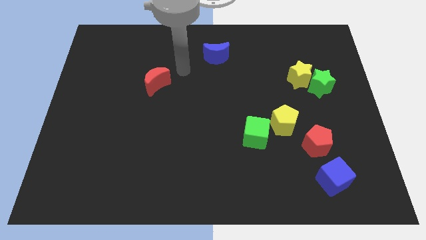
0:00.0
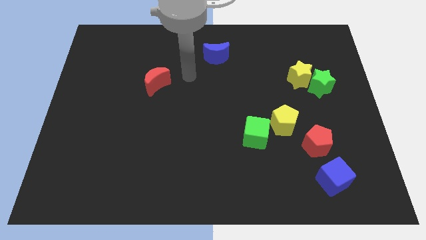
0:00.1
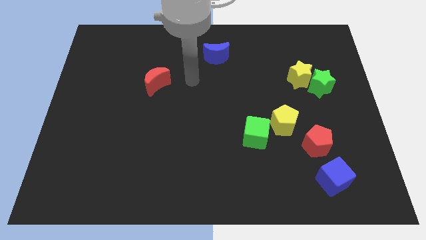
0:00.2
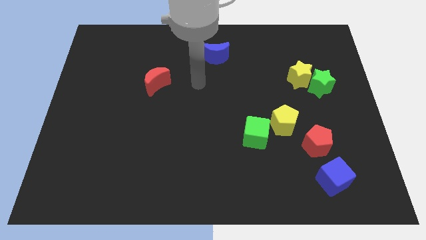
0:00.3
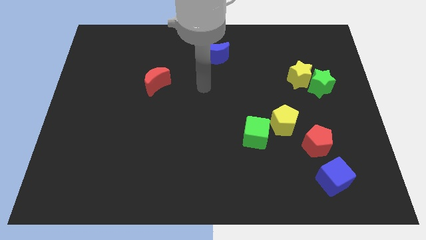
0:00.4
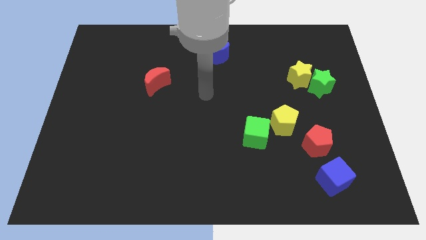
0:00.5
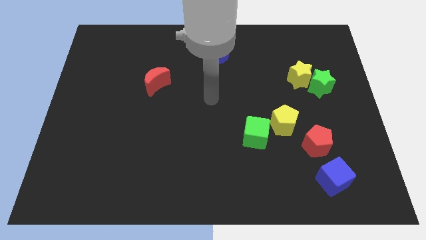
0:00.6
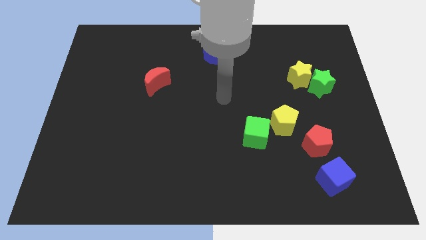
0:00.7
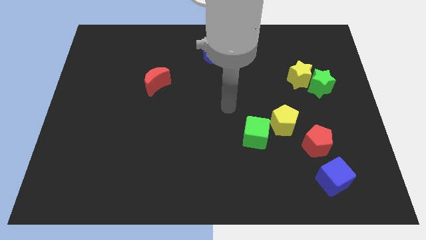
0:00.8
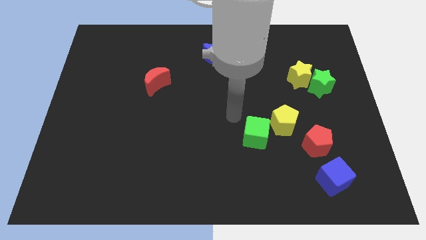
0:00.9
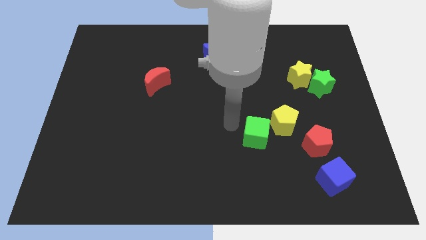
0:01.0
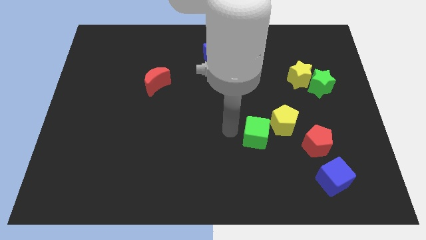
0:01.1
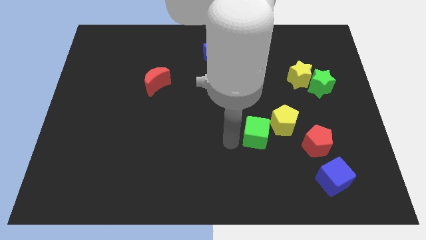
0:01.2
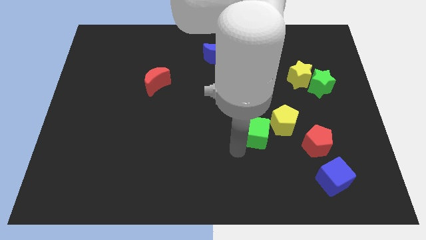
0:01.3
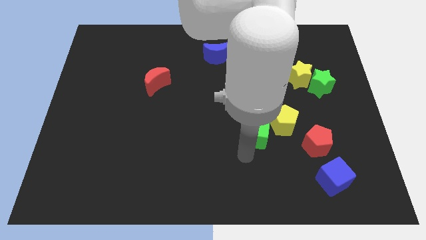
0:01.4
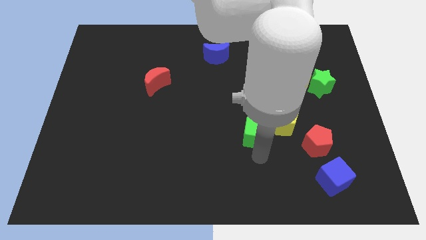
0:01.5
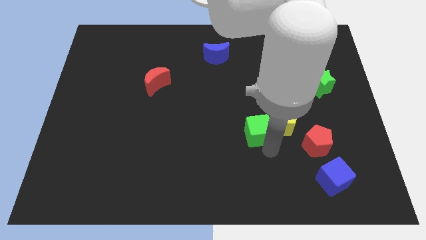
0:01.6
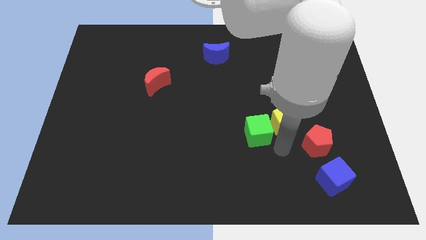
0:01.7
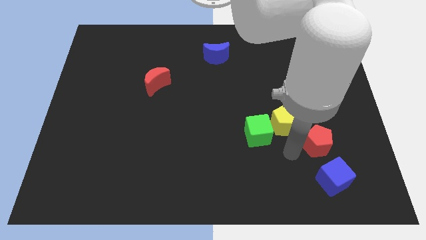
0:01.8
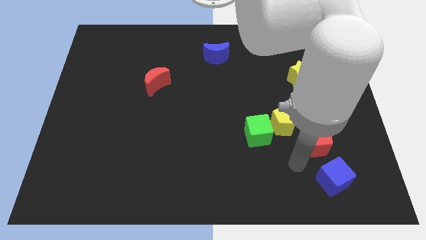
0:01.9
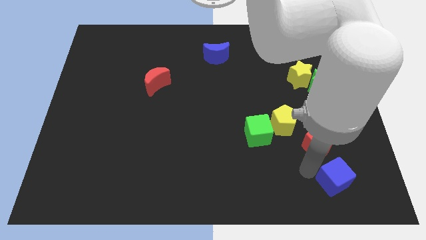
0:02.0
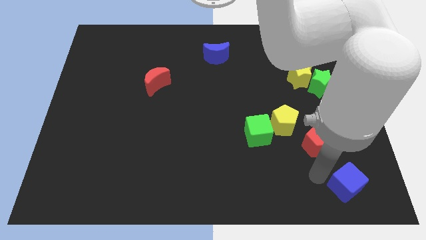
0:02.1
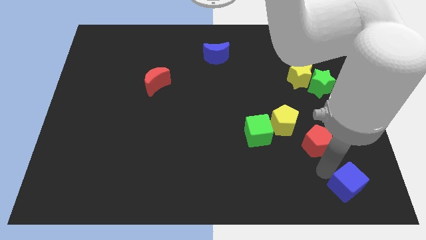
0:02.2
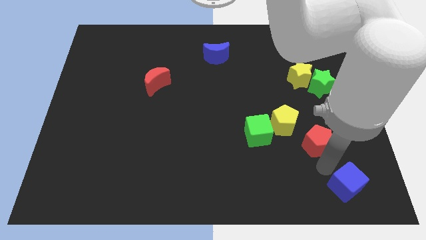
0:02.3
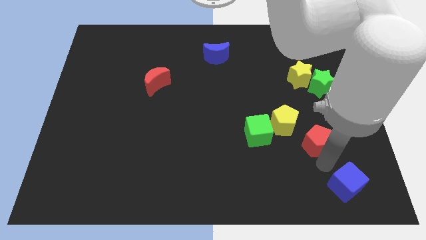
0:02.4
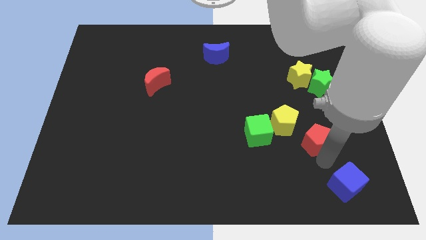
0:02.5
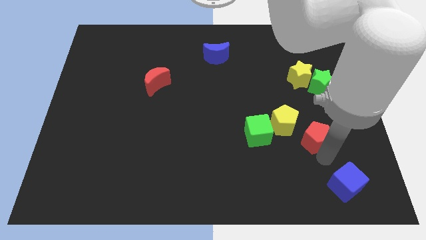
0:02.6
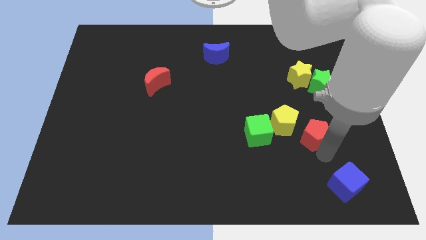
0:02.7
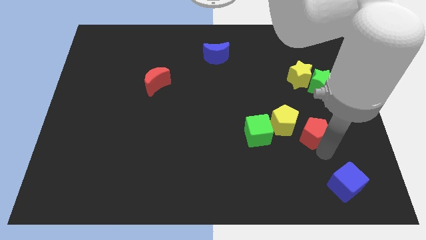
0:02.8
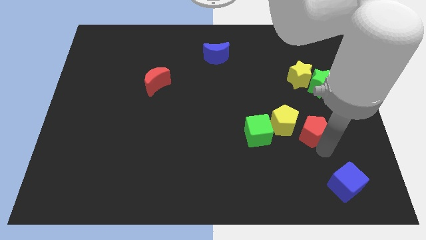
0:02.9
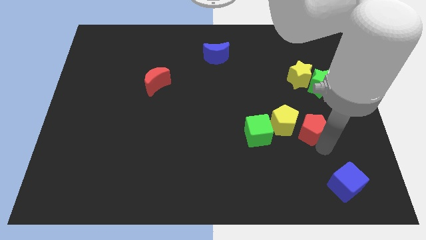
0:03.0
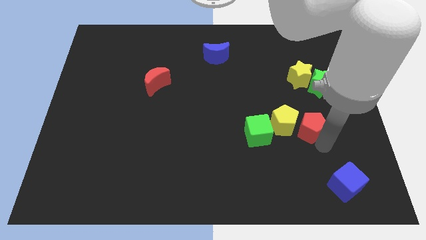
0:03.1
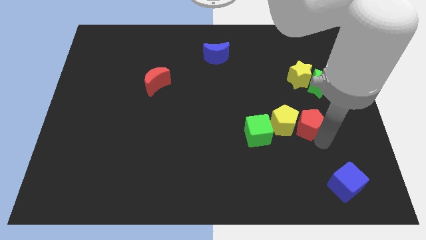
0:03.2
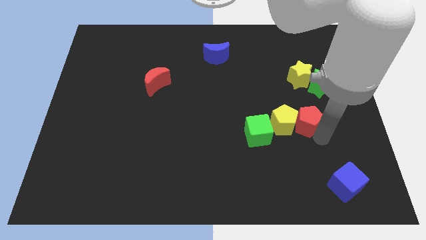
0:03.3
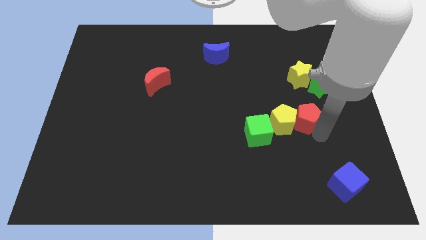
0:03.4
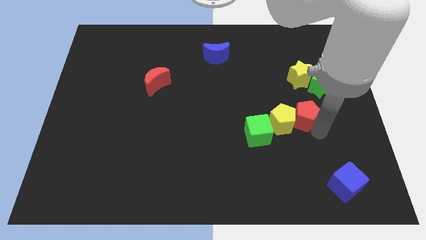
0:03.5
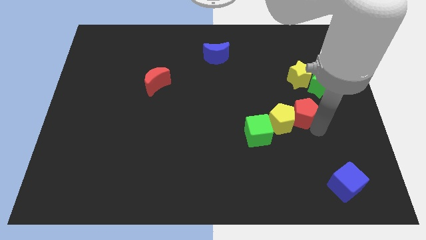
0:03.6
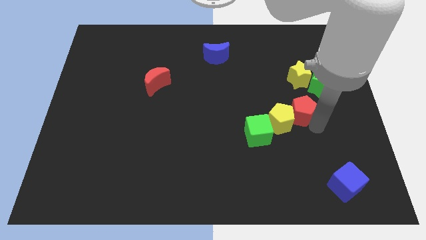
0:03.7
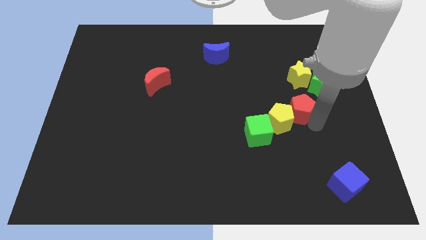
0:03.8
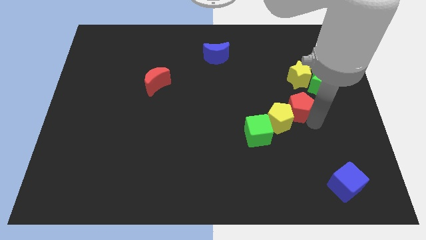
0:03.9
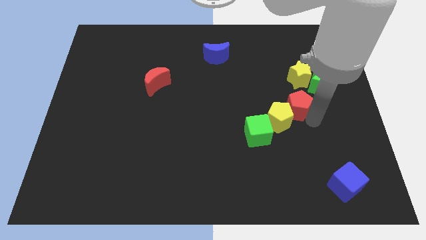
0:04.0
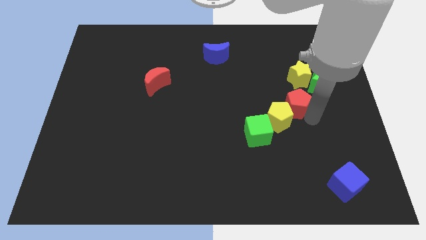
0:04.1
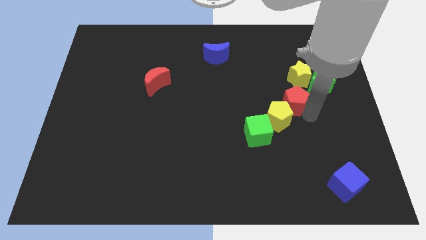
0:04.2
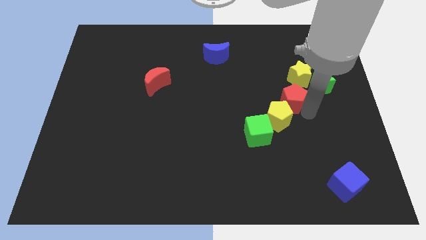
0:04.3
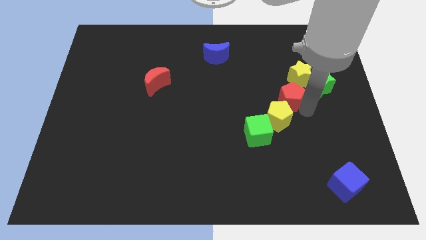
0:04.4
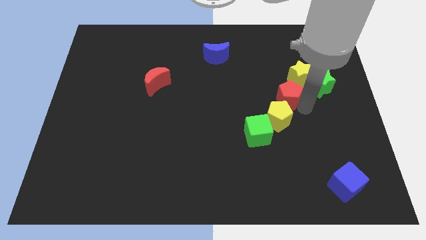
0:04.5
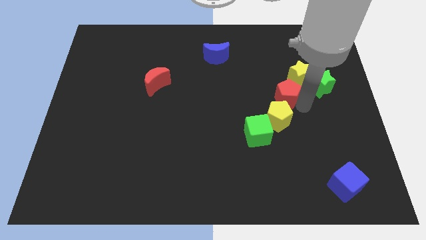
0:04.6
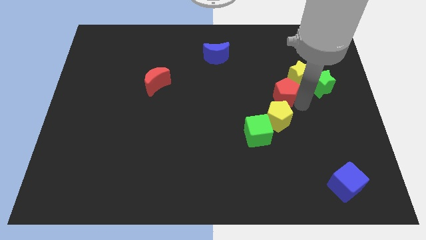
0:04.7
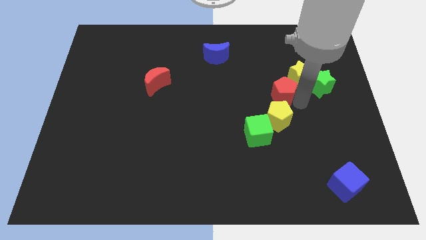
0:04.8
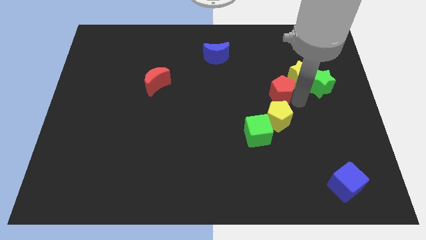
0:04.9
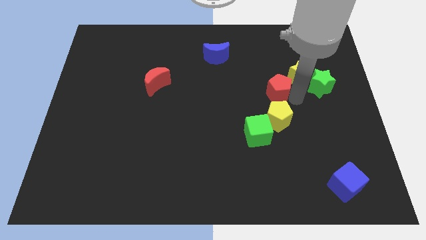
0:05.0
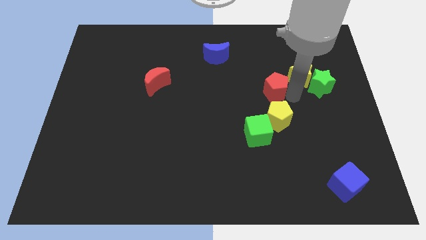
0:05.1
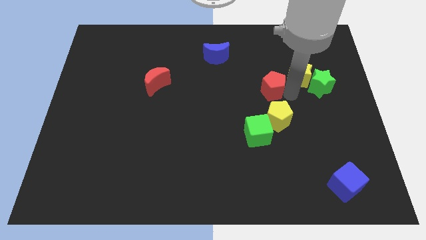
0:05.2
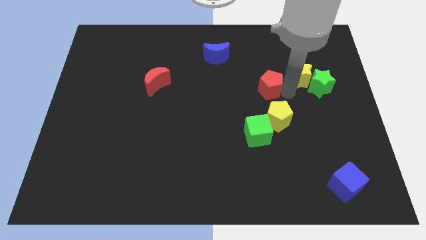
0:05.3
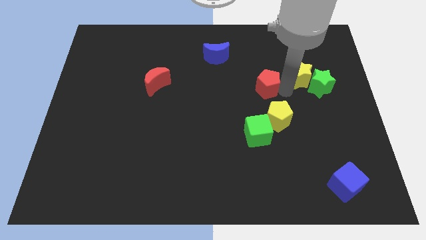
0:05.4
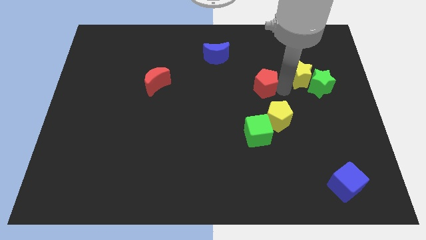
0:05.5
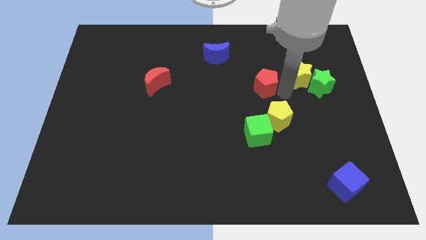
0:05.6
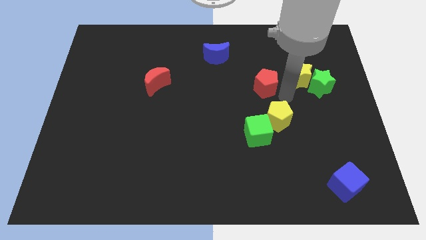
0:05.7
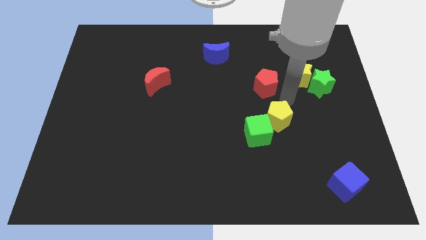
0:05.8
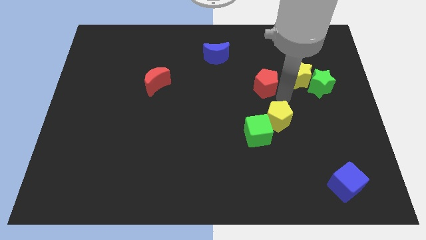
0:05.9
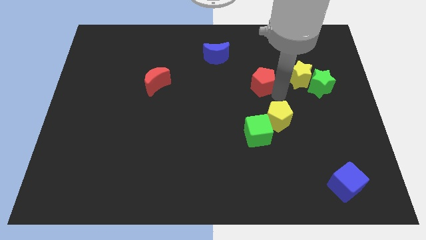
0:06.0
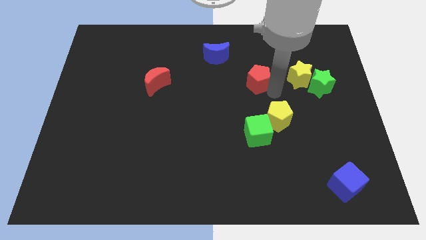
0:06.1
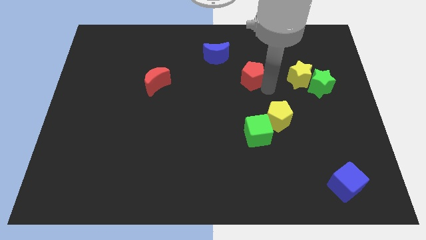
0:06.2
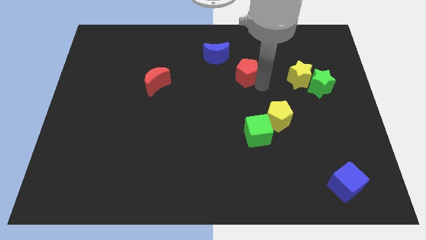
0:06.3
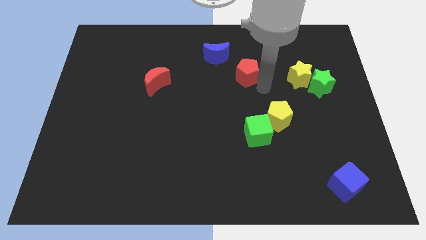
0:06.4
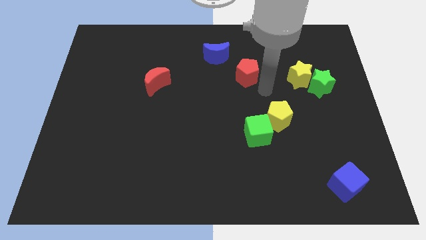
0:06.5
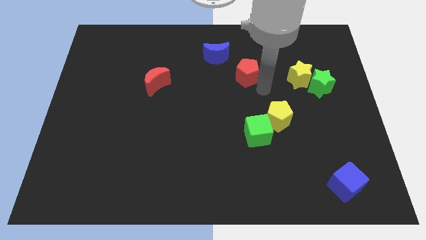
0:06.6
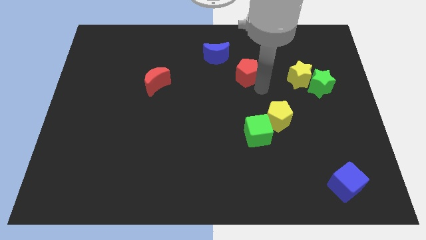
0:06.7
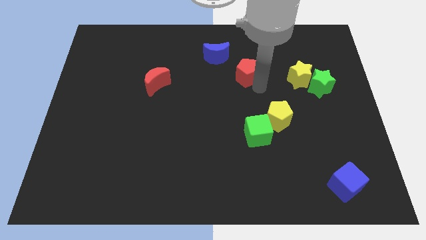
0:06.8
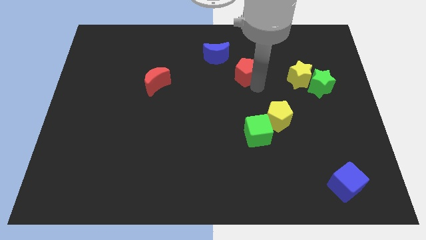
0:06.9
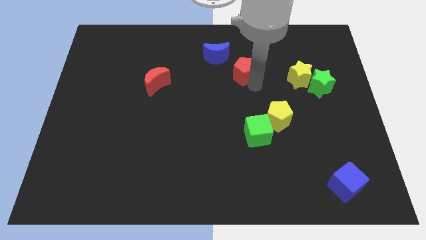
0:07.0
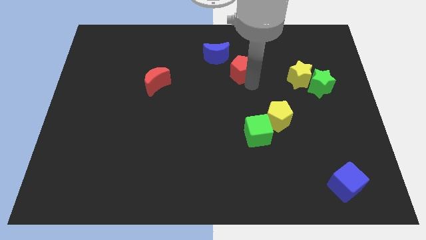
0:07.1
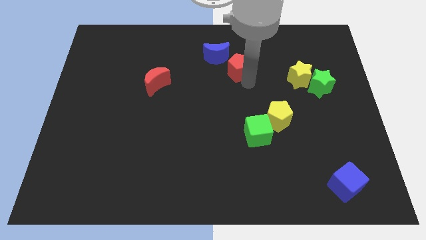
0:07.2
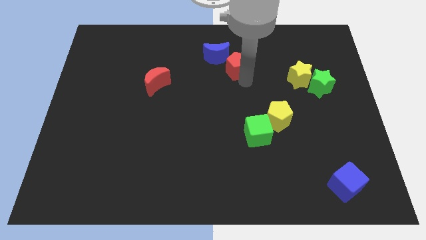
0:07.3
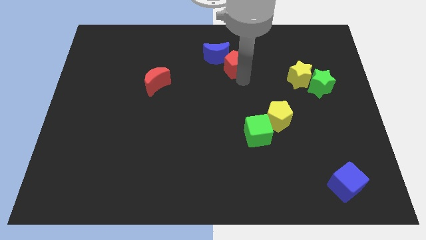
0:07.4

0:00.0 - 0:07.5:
move the red pentagon to the blue moon

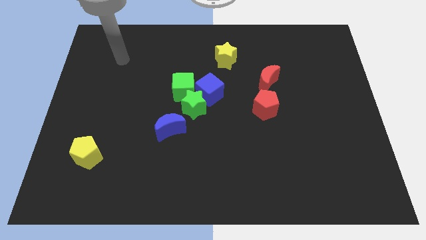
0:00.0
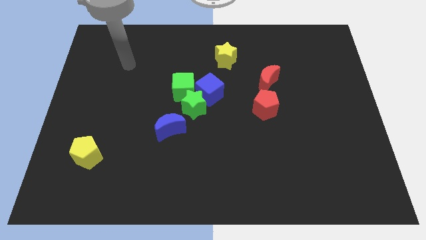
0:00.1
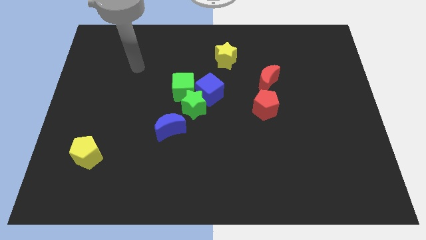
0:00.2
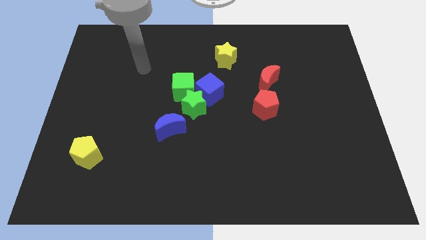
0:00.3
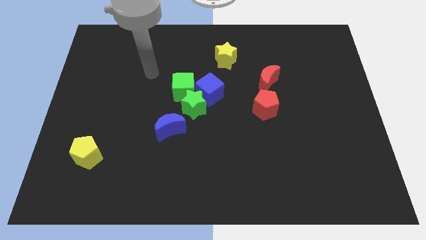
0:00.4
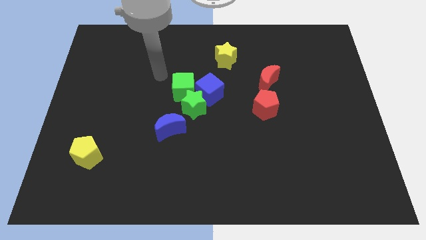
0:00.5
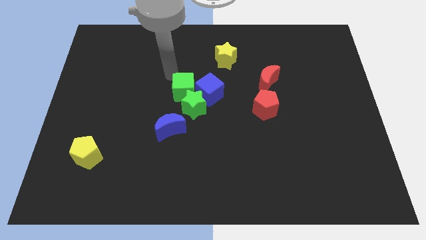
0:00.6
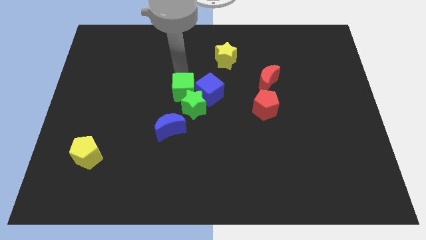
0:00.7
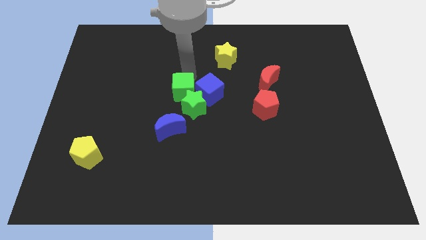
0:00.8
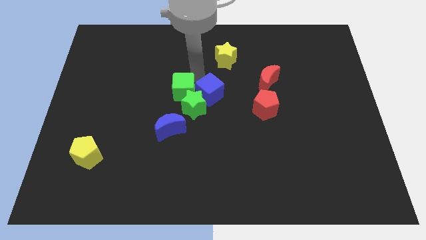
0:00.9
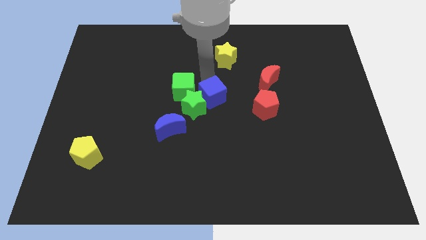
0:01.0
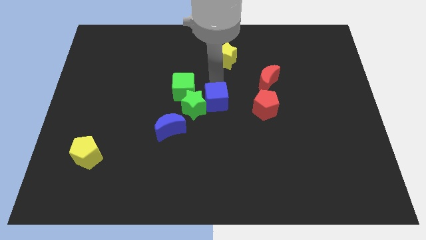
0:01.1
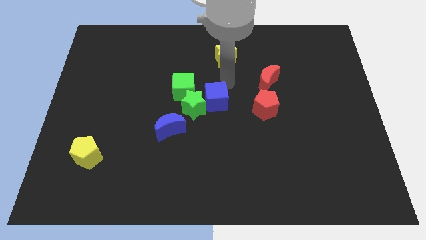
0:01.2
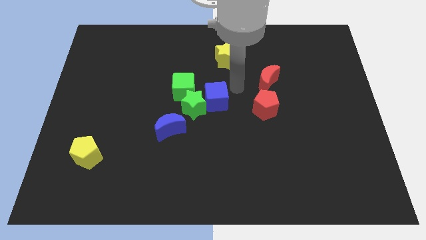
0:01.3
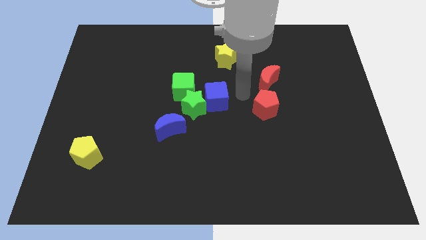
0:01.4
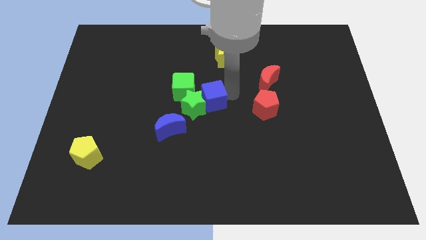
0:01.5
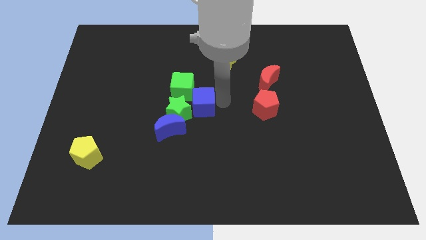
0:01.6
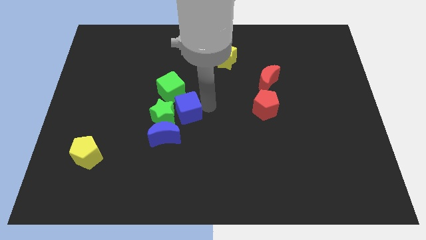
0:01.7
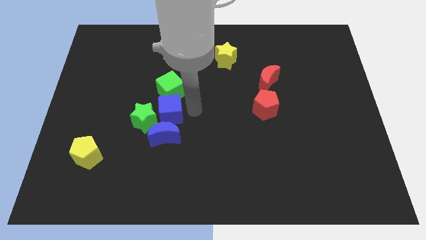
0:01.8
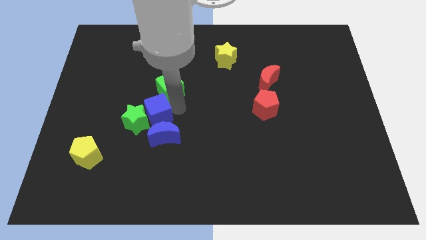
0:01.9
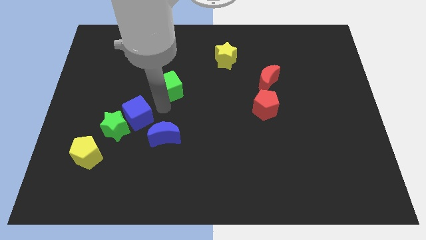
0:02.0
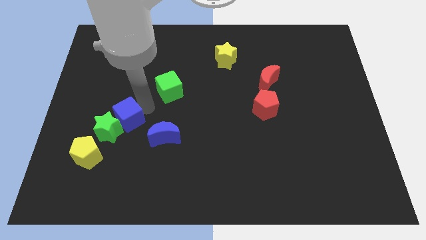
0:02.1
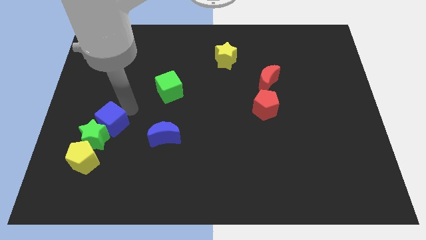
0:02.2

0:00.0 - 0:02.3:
push the green star close to the yellow pentagon
